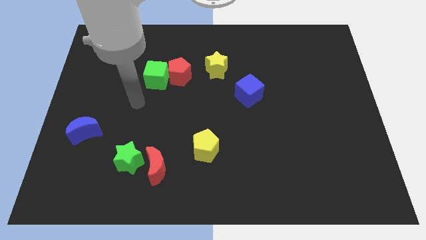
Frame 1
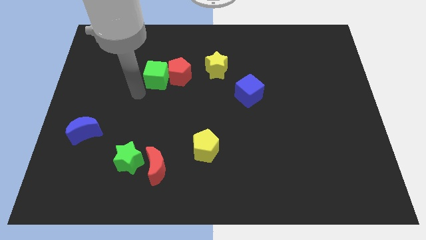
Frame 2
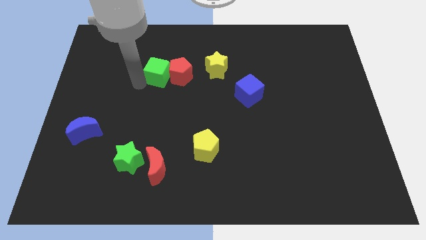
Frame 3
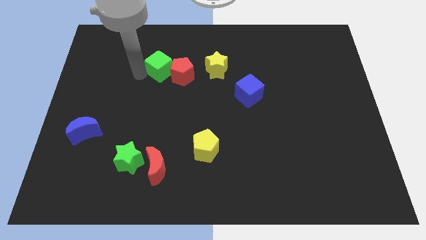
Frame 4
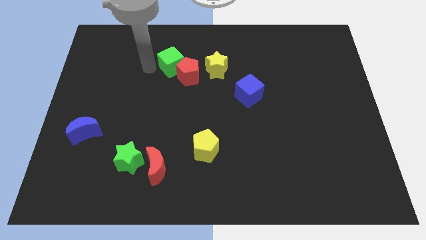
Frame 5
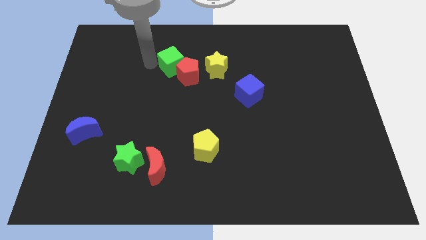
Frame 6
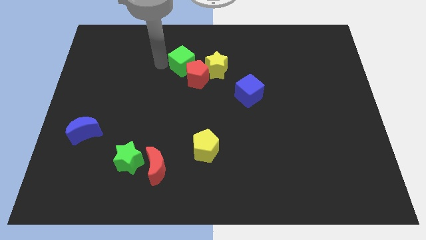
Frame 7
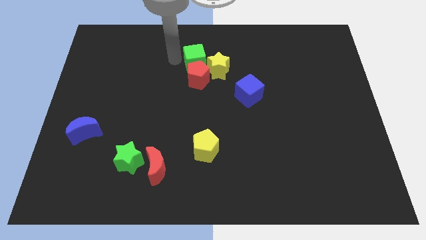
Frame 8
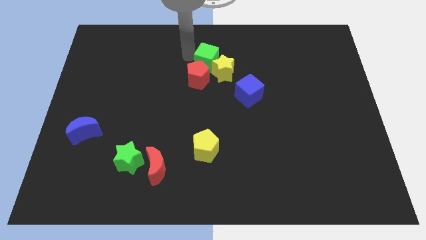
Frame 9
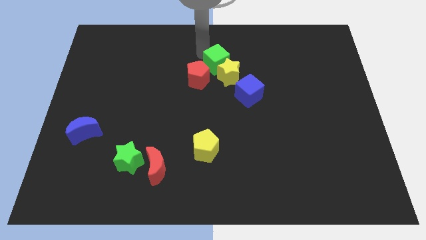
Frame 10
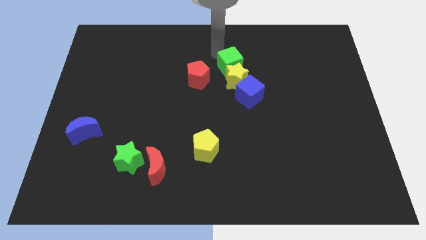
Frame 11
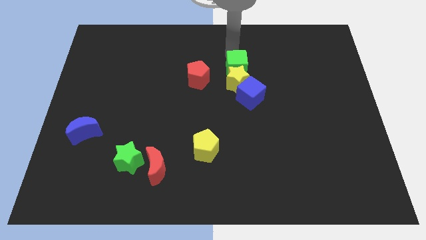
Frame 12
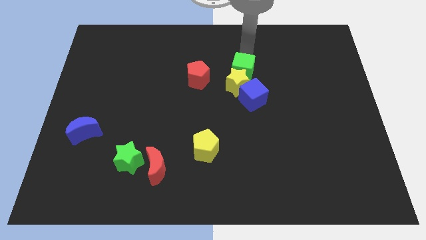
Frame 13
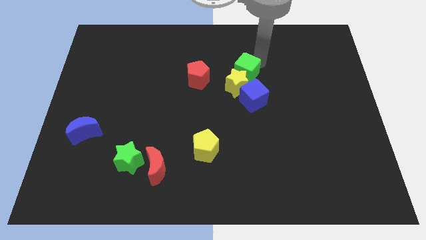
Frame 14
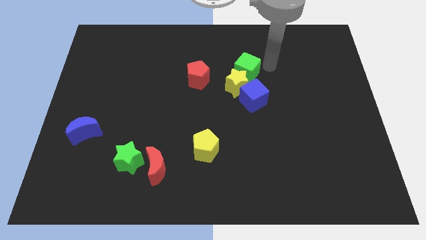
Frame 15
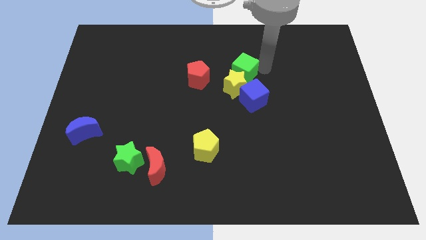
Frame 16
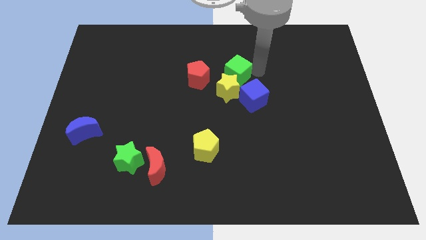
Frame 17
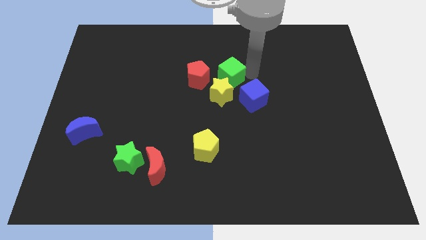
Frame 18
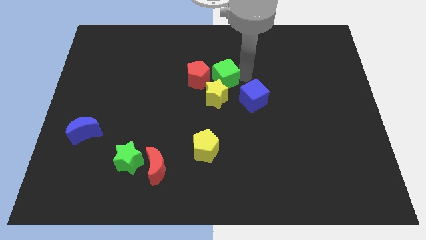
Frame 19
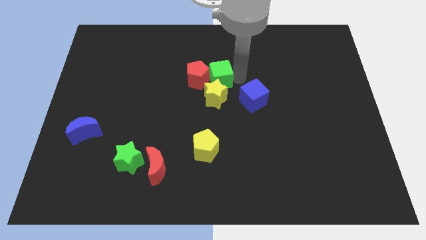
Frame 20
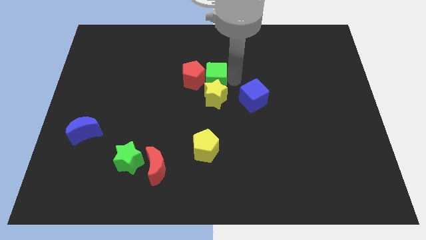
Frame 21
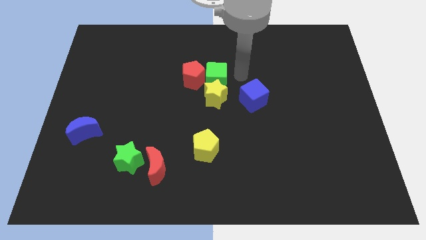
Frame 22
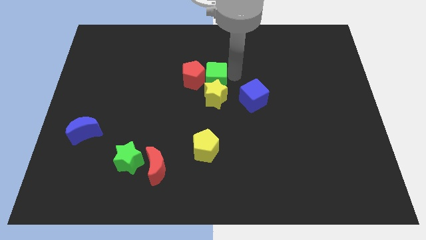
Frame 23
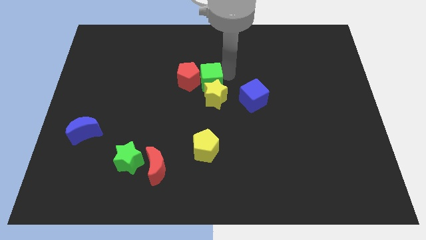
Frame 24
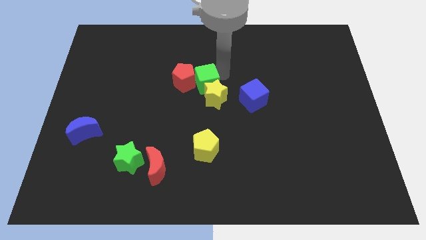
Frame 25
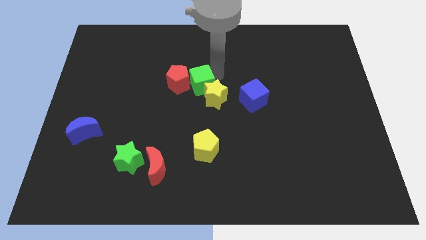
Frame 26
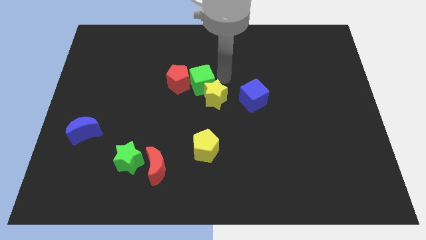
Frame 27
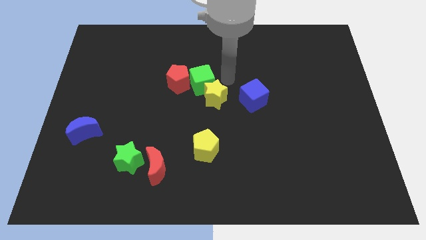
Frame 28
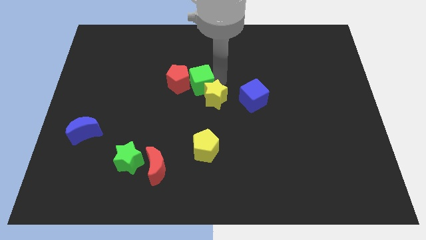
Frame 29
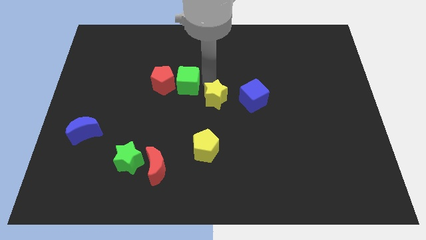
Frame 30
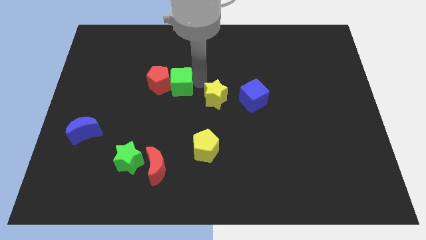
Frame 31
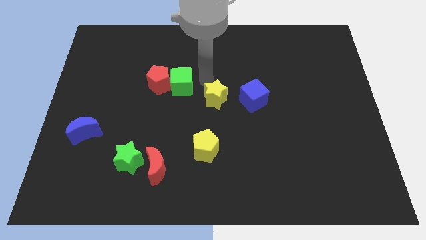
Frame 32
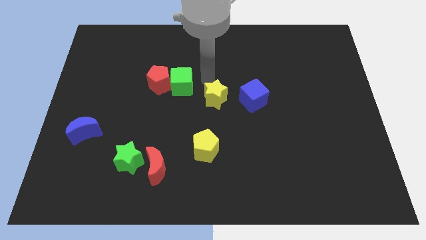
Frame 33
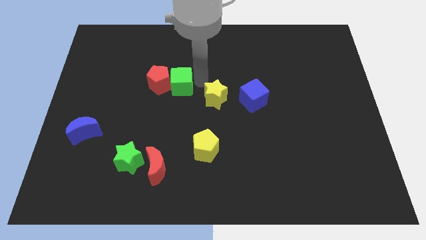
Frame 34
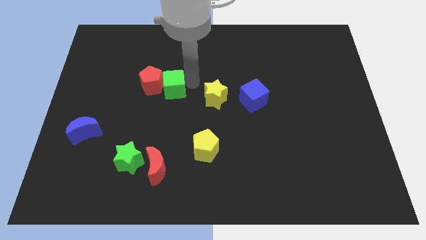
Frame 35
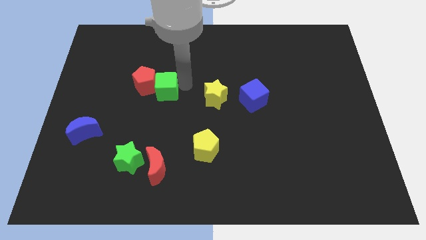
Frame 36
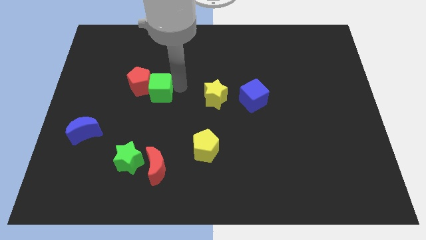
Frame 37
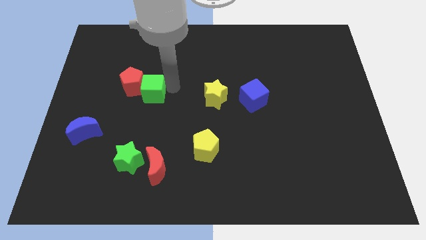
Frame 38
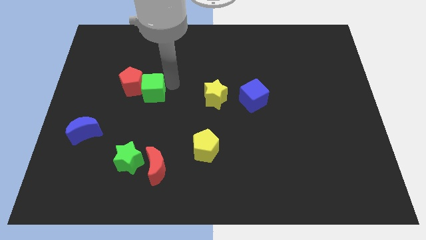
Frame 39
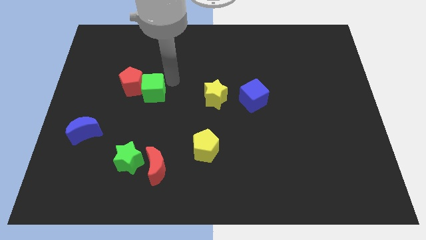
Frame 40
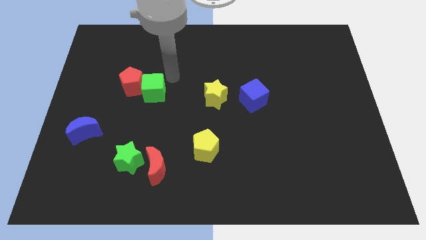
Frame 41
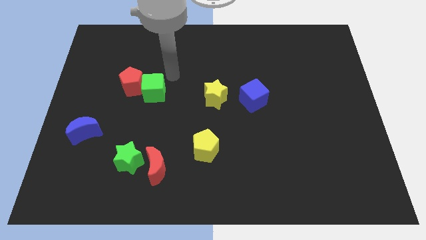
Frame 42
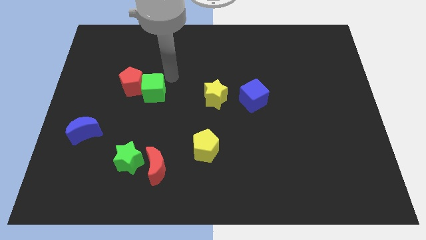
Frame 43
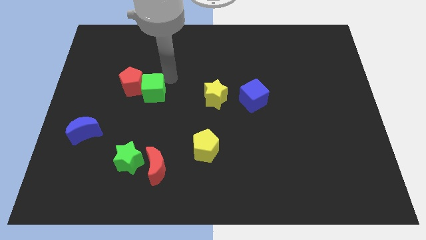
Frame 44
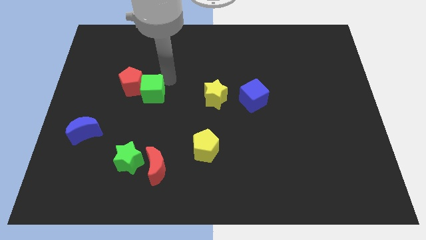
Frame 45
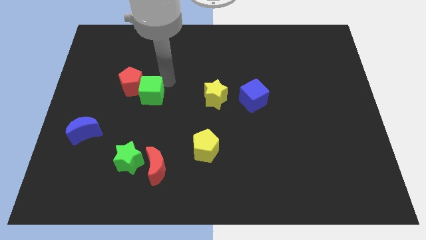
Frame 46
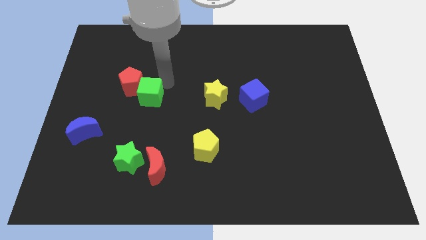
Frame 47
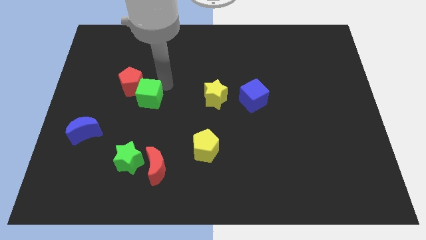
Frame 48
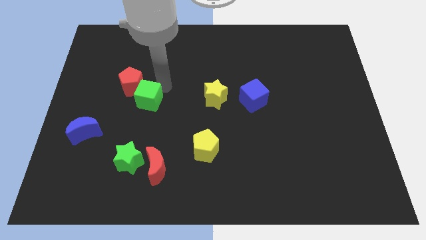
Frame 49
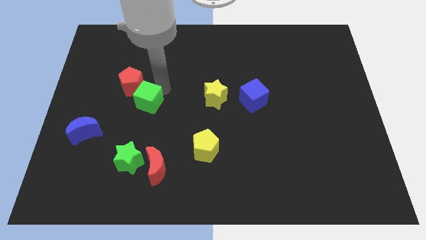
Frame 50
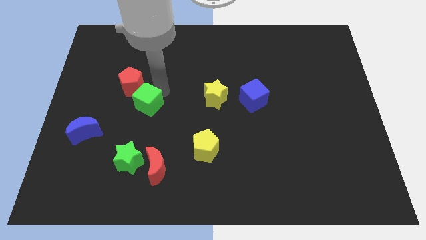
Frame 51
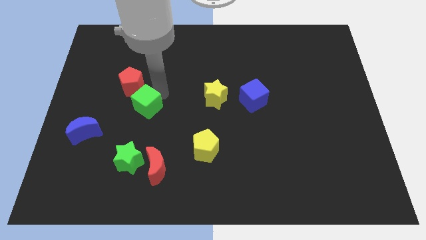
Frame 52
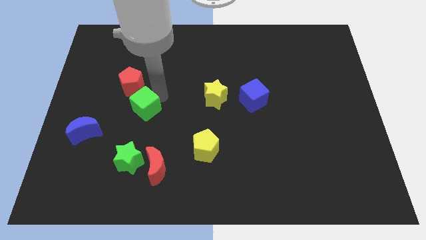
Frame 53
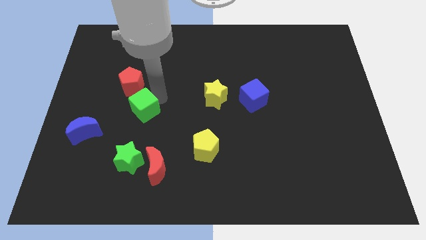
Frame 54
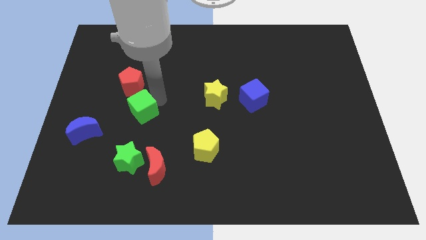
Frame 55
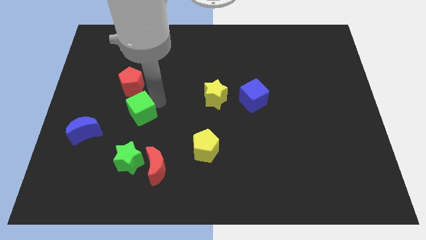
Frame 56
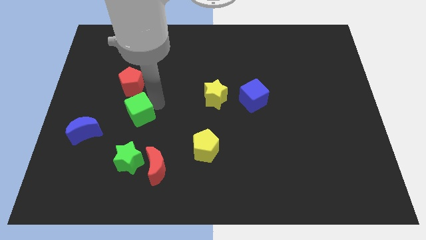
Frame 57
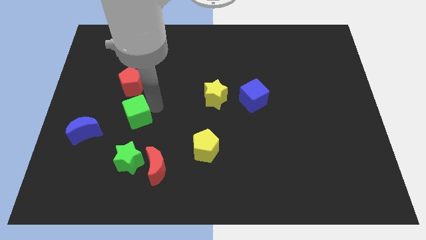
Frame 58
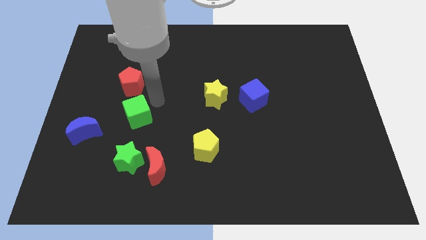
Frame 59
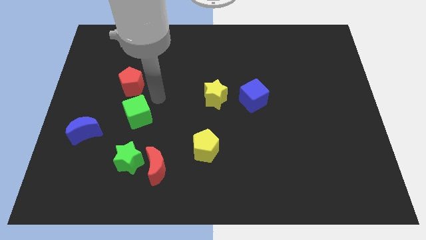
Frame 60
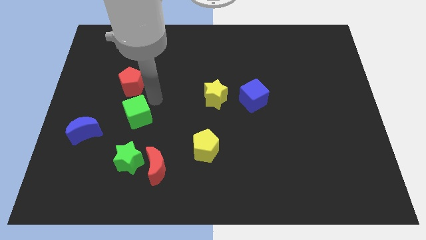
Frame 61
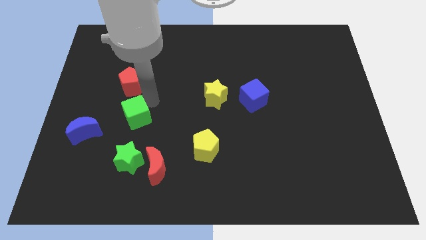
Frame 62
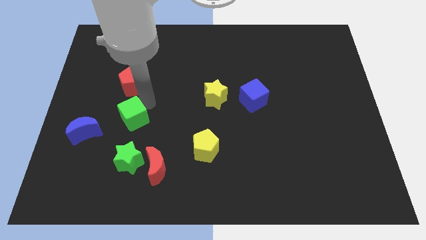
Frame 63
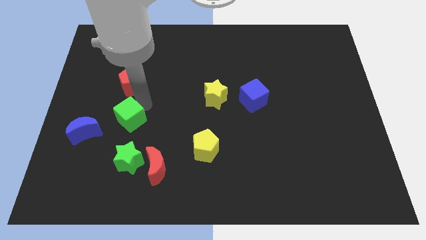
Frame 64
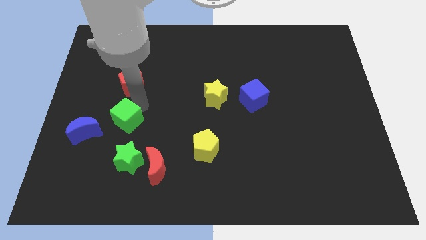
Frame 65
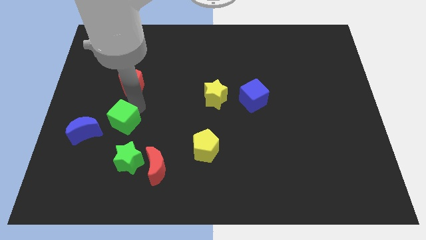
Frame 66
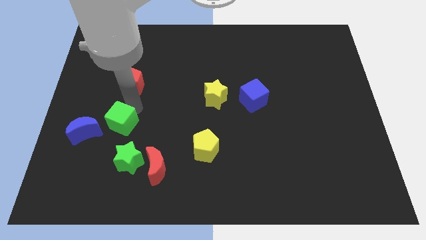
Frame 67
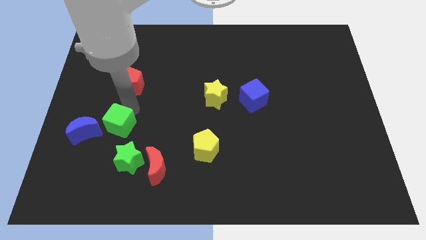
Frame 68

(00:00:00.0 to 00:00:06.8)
put the green cube diagonally up and to the left of the green star

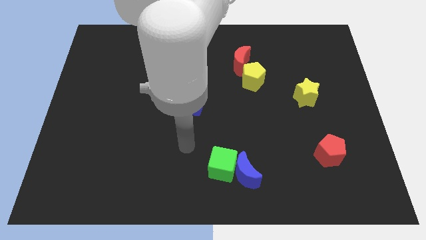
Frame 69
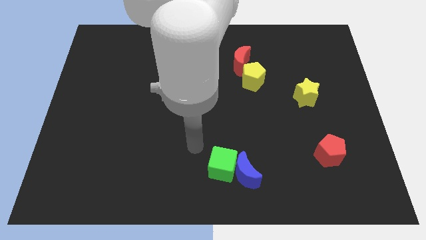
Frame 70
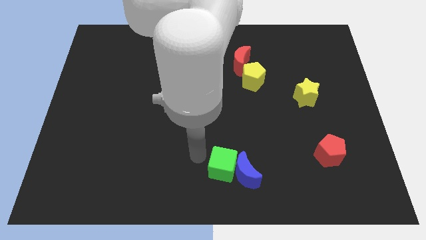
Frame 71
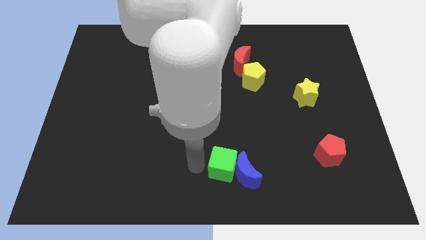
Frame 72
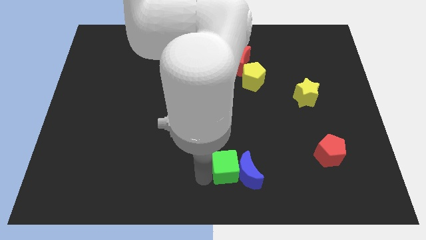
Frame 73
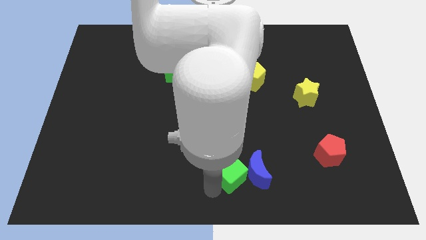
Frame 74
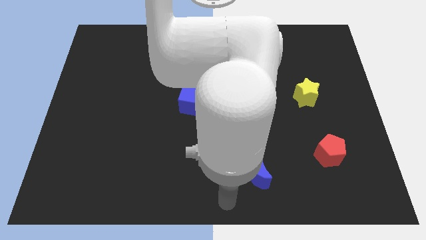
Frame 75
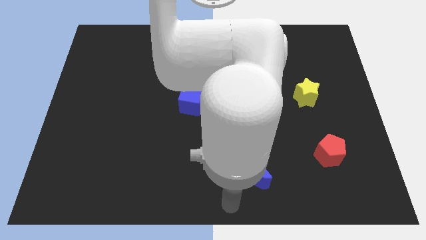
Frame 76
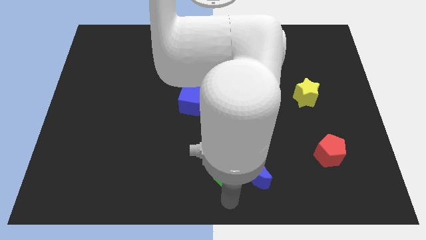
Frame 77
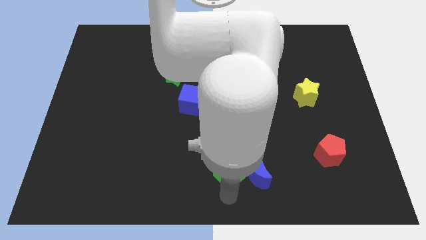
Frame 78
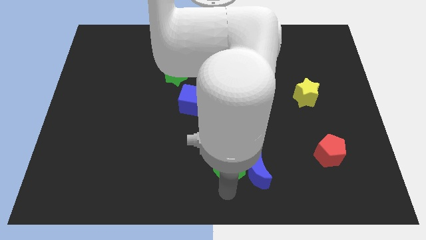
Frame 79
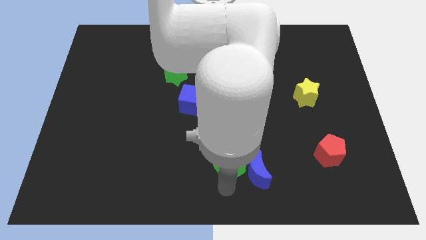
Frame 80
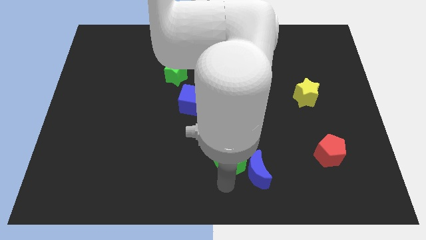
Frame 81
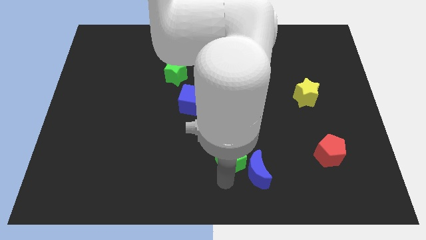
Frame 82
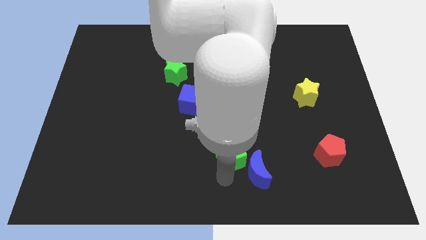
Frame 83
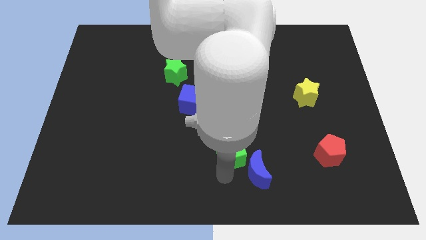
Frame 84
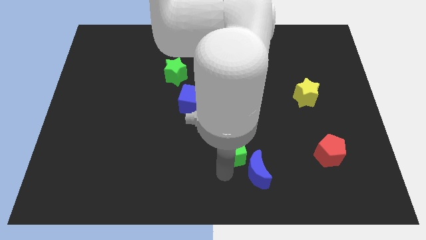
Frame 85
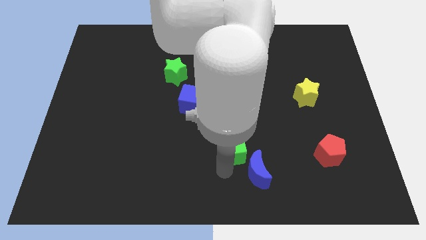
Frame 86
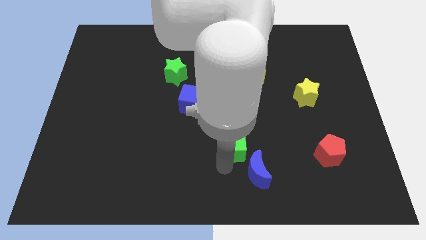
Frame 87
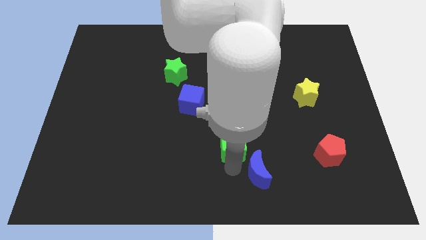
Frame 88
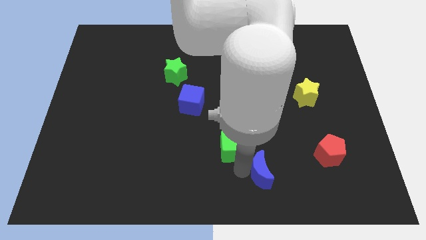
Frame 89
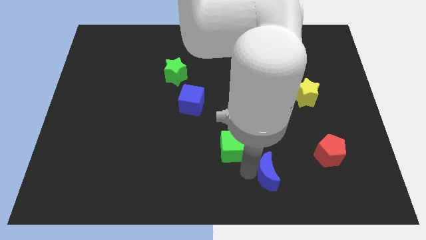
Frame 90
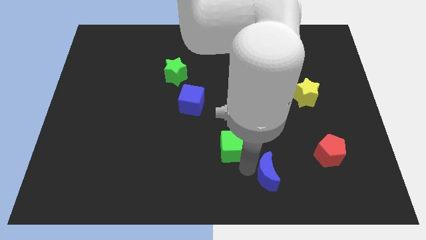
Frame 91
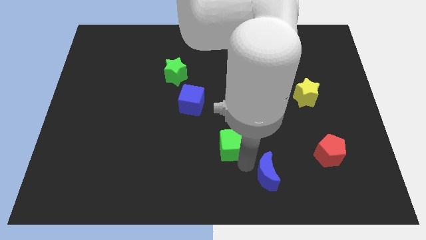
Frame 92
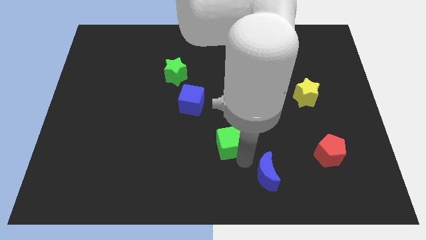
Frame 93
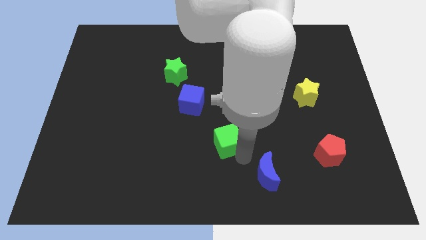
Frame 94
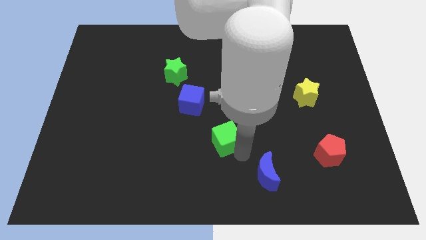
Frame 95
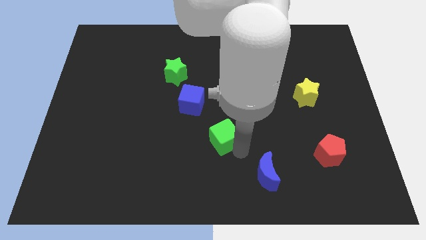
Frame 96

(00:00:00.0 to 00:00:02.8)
slide the green cube to the bottom right side of the blue cube
